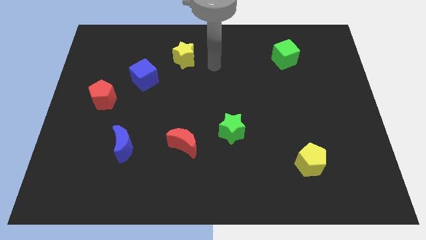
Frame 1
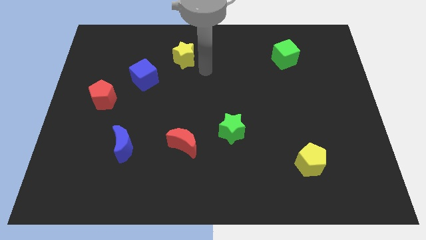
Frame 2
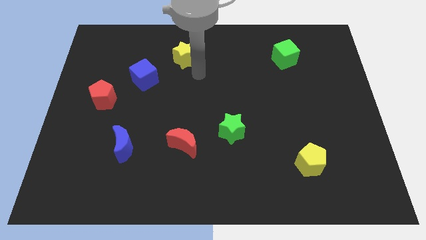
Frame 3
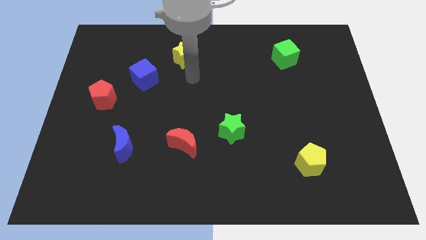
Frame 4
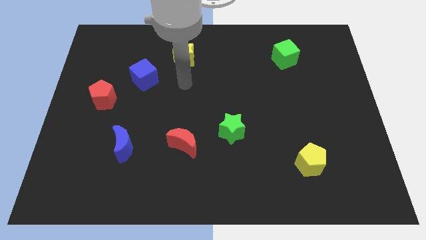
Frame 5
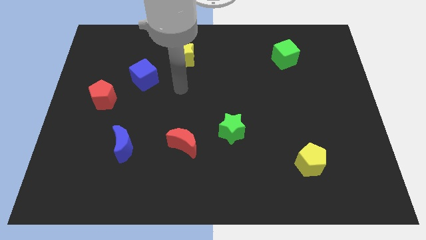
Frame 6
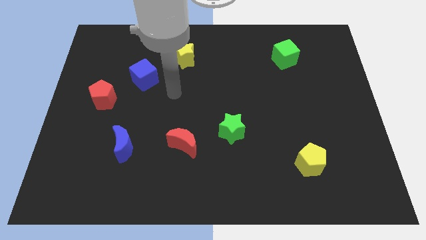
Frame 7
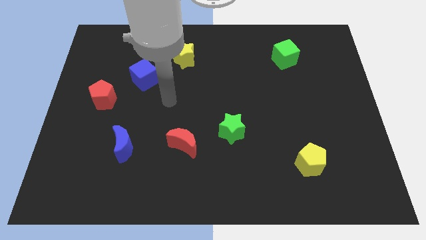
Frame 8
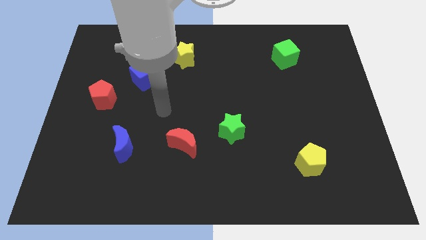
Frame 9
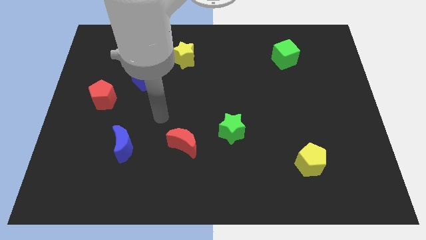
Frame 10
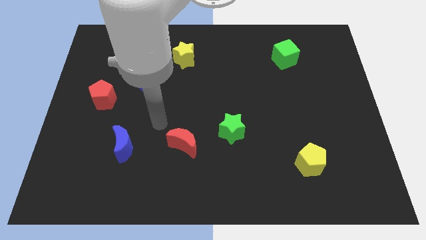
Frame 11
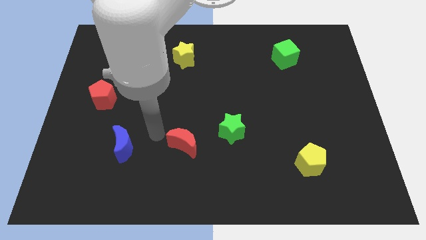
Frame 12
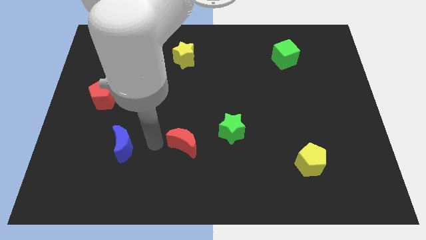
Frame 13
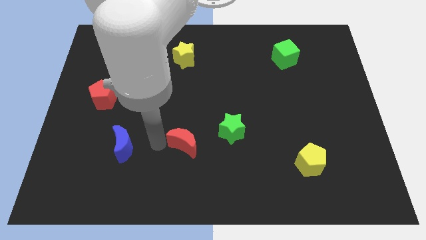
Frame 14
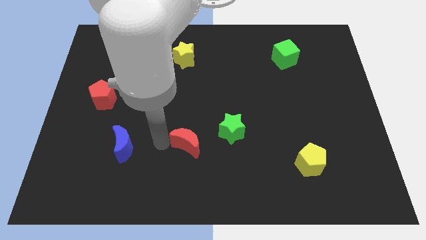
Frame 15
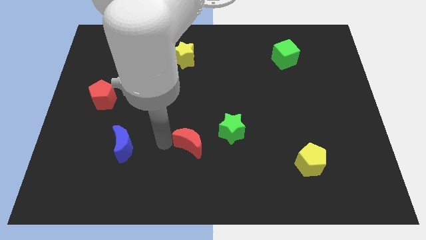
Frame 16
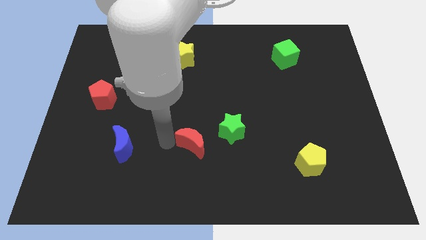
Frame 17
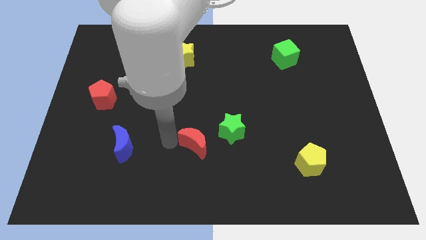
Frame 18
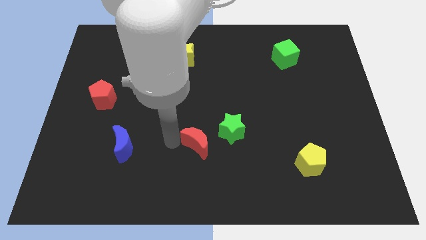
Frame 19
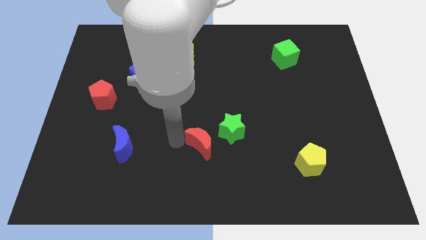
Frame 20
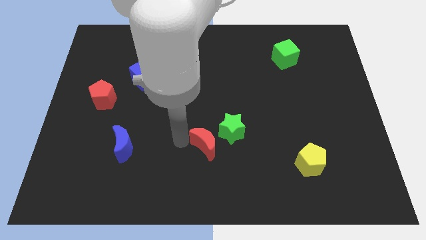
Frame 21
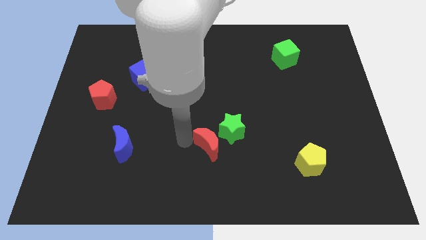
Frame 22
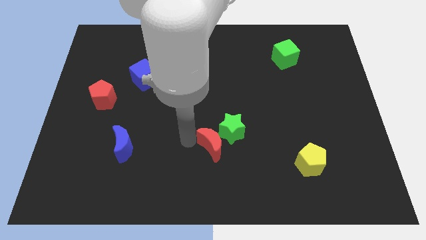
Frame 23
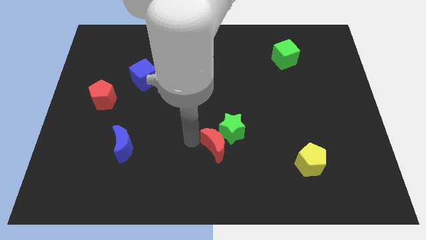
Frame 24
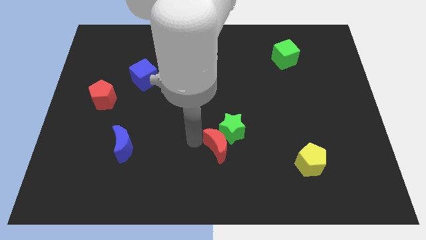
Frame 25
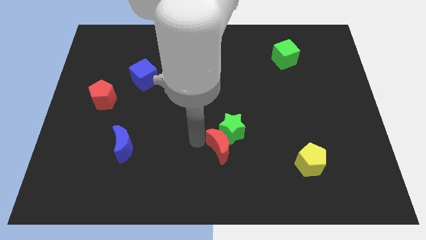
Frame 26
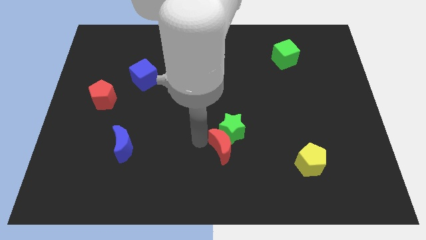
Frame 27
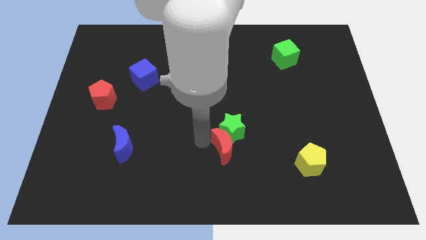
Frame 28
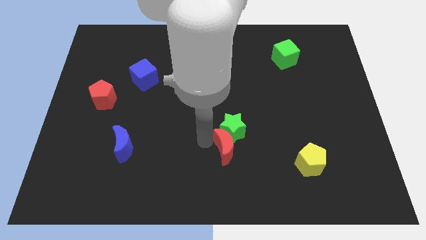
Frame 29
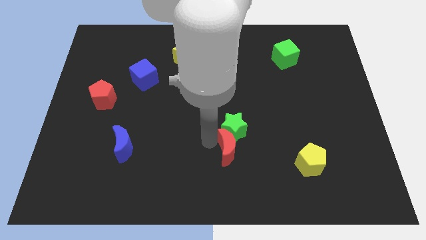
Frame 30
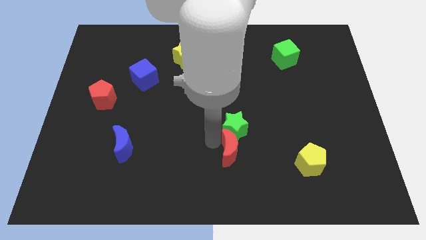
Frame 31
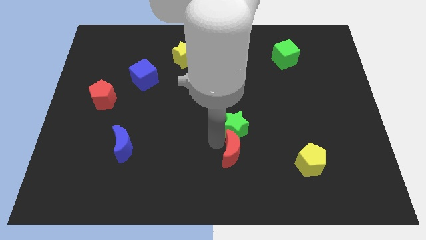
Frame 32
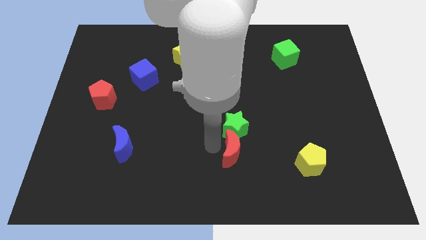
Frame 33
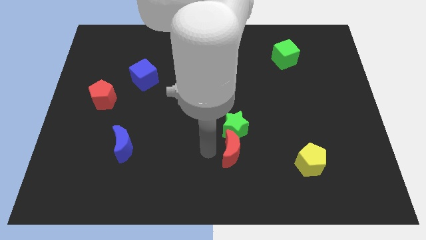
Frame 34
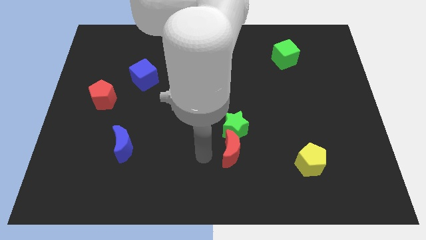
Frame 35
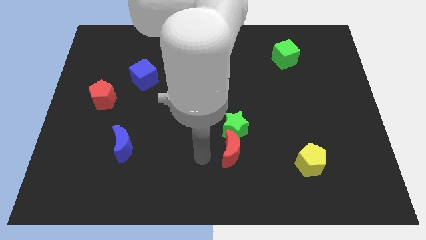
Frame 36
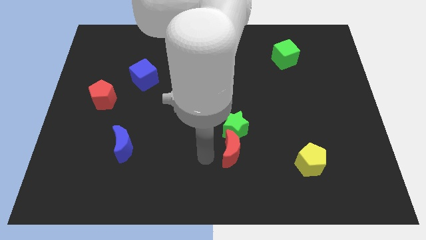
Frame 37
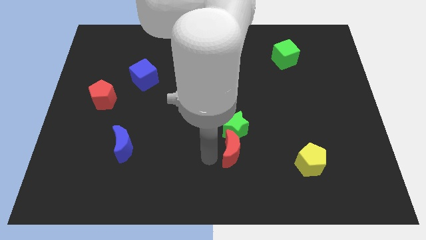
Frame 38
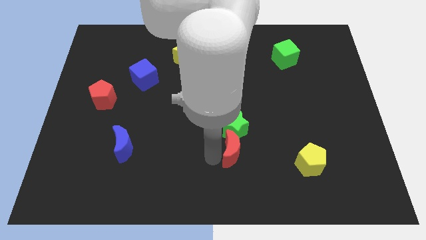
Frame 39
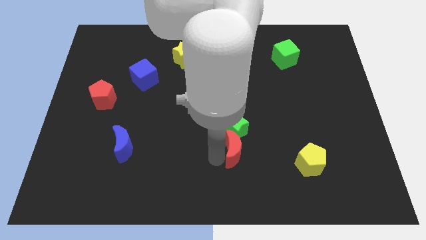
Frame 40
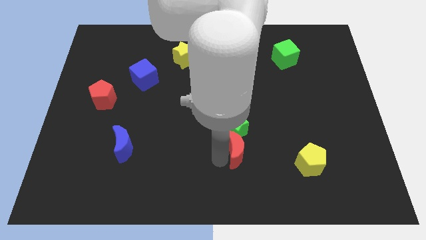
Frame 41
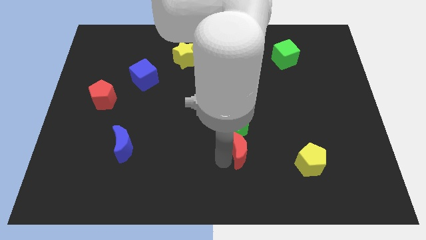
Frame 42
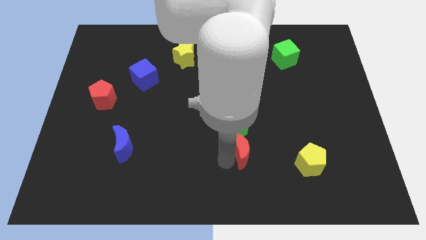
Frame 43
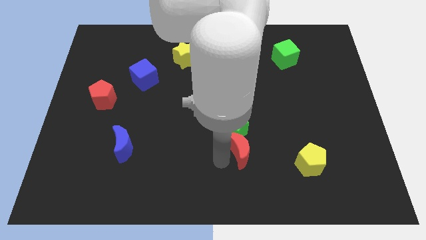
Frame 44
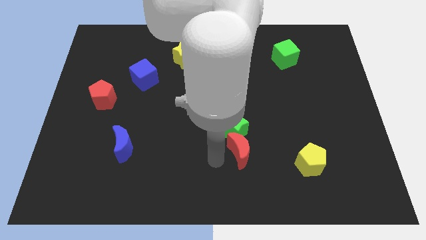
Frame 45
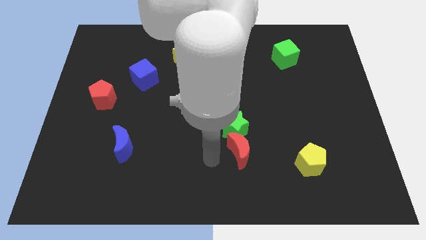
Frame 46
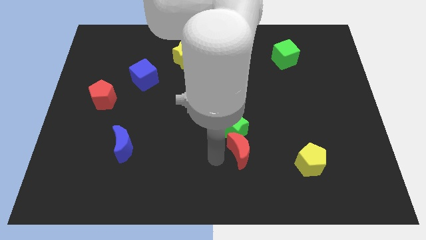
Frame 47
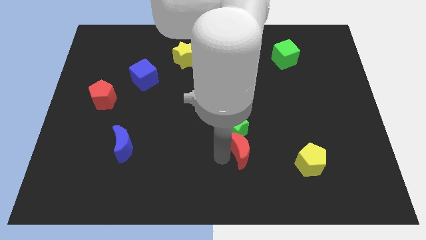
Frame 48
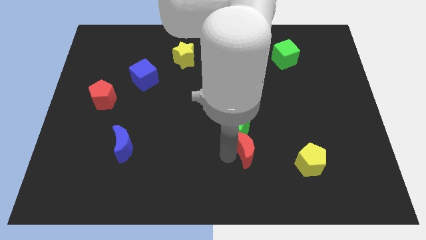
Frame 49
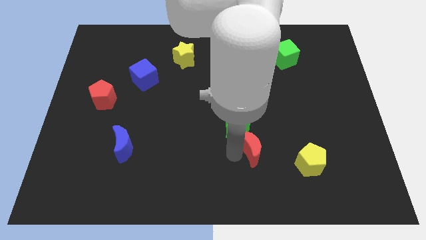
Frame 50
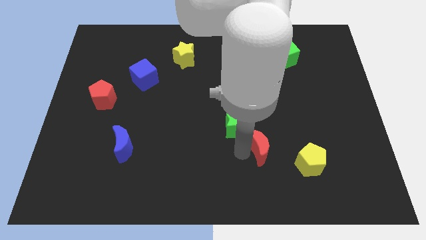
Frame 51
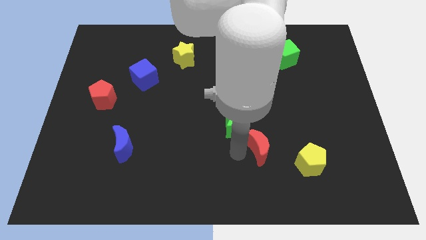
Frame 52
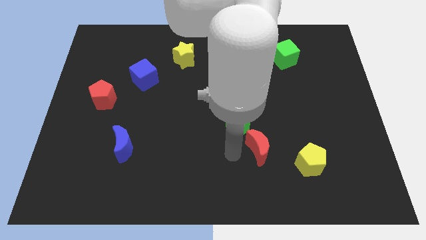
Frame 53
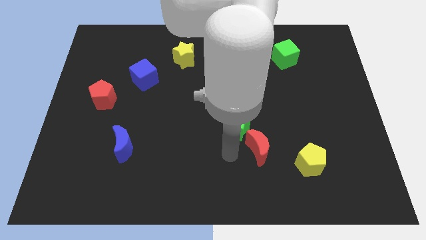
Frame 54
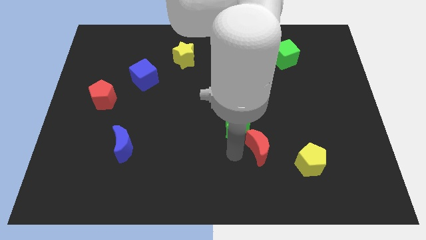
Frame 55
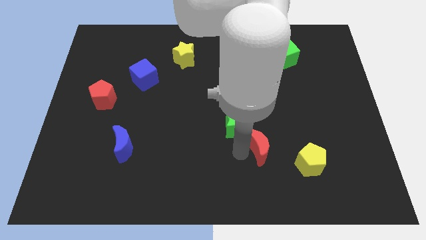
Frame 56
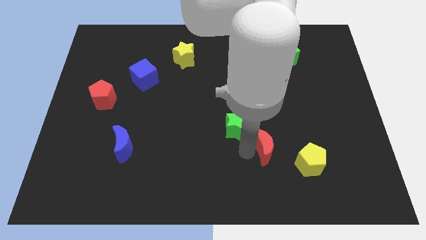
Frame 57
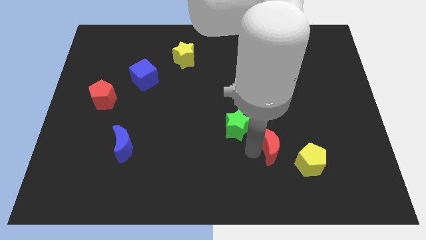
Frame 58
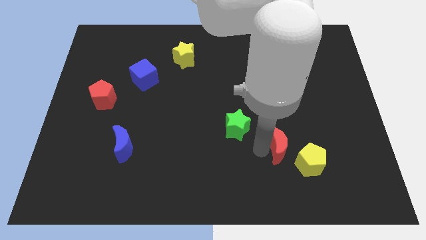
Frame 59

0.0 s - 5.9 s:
move the red moon to the right

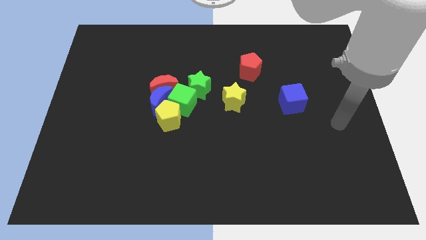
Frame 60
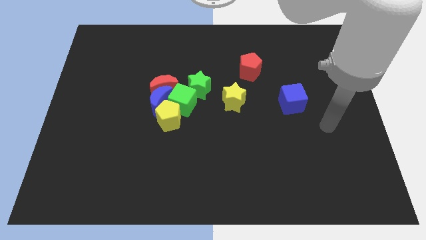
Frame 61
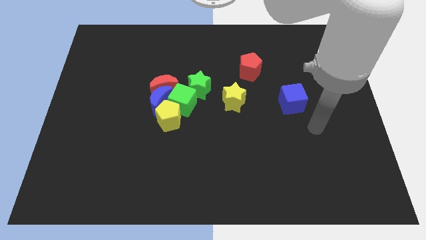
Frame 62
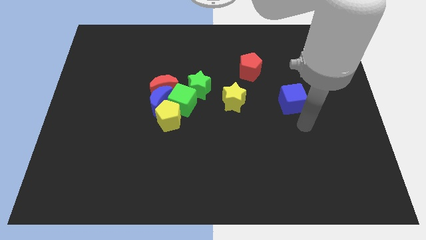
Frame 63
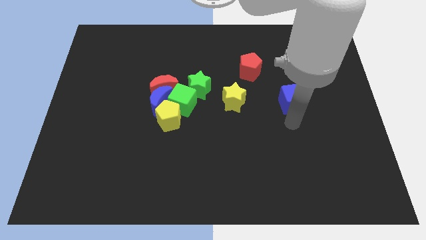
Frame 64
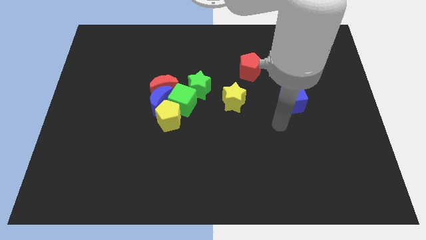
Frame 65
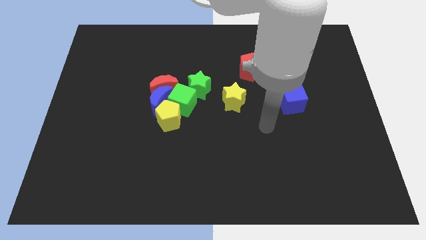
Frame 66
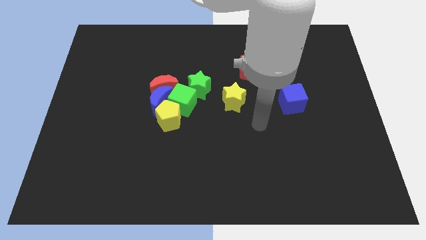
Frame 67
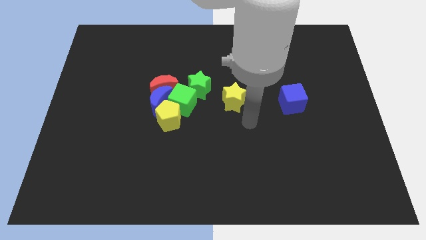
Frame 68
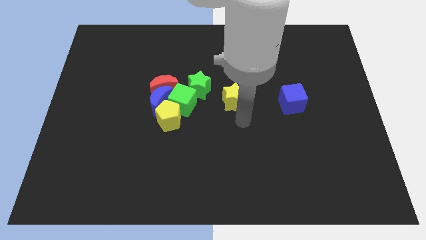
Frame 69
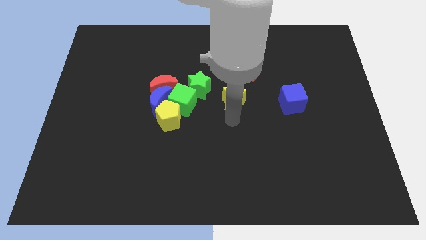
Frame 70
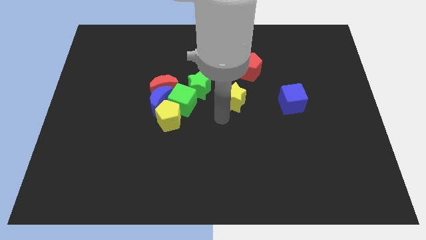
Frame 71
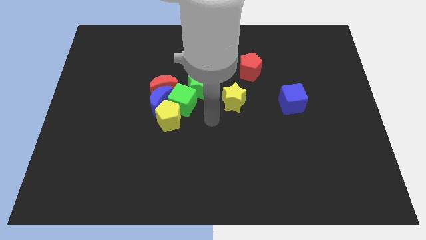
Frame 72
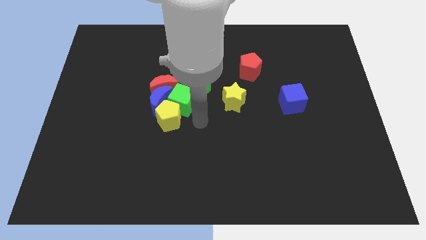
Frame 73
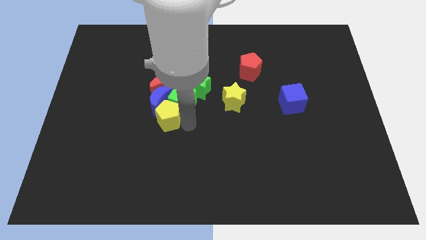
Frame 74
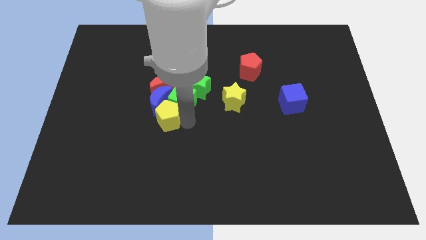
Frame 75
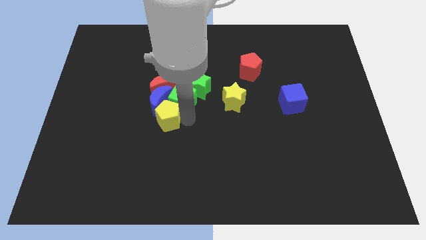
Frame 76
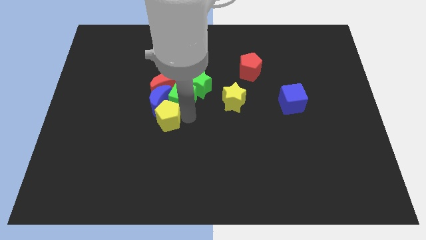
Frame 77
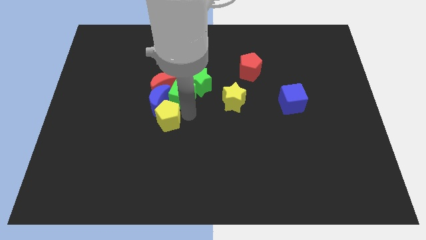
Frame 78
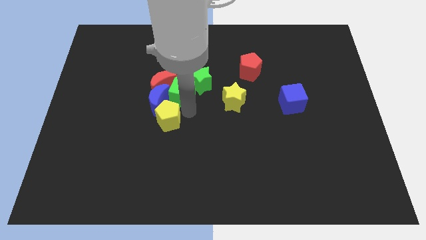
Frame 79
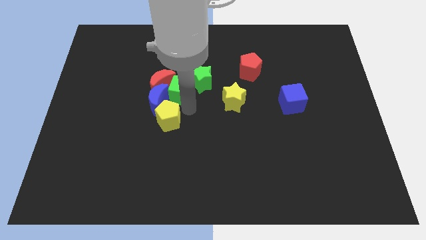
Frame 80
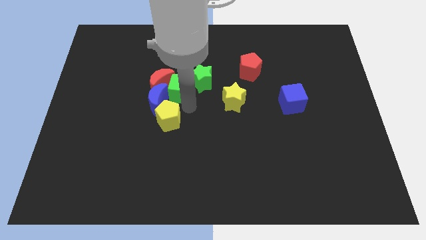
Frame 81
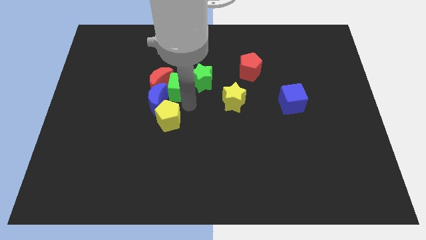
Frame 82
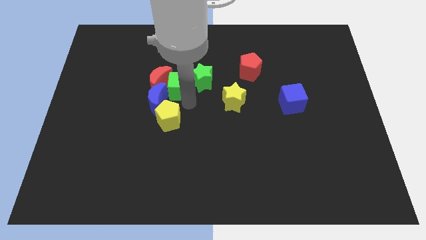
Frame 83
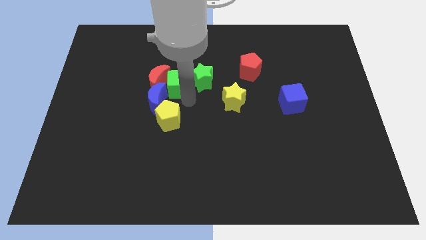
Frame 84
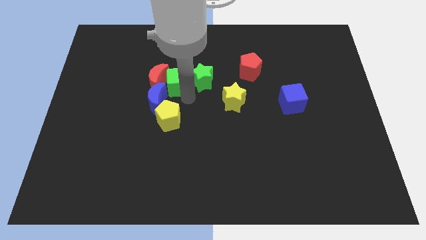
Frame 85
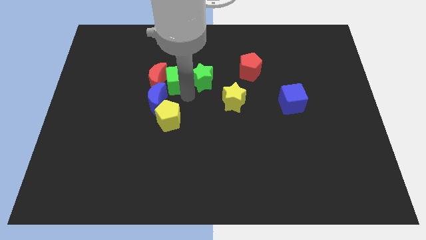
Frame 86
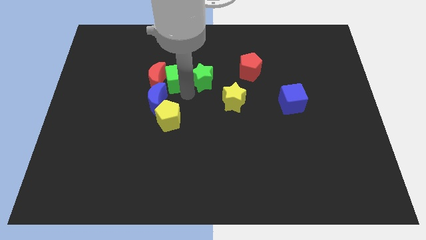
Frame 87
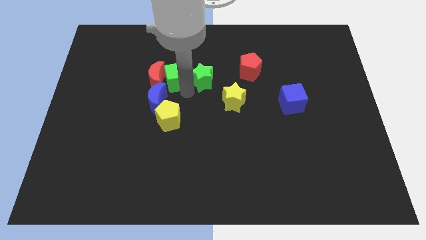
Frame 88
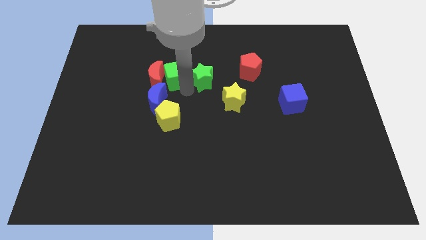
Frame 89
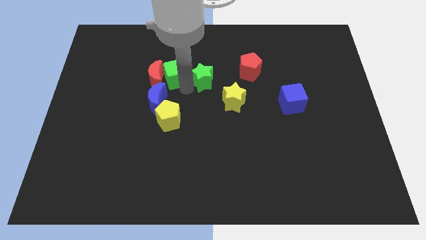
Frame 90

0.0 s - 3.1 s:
slightly slide the green cube diagonally up and left
